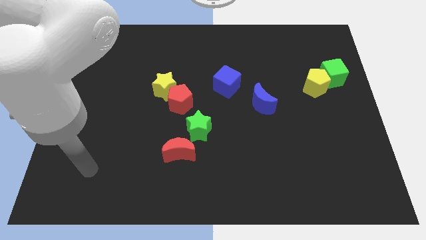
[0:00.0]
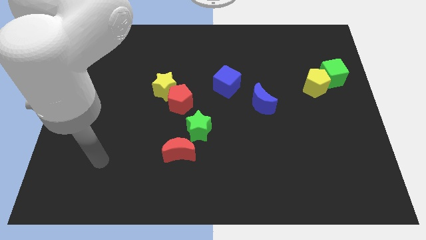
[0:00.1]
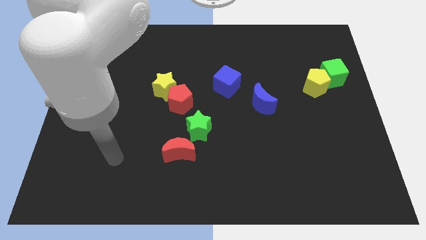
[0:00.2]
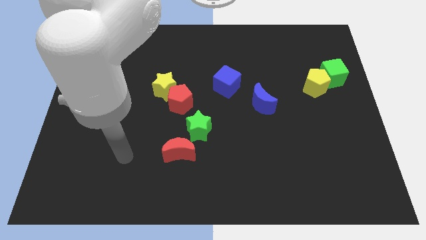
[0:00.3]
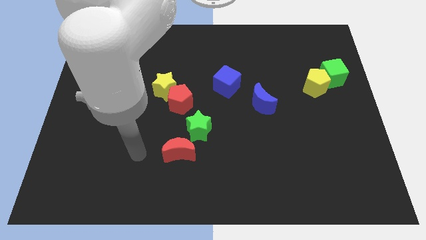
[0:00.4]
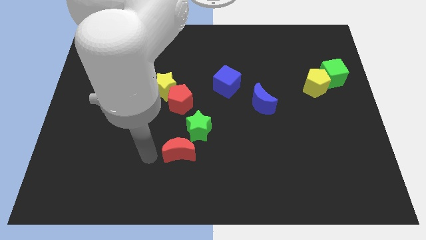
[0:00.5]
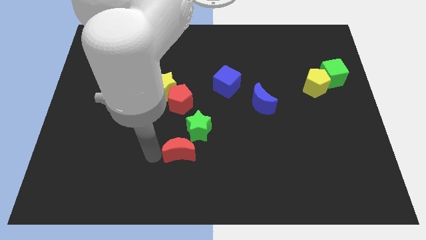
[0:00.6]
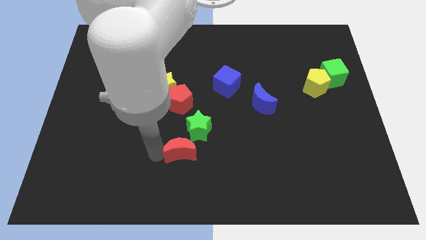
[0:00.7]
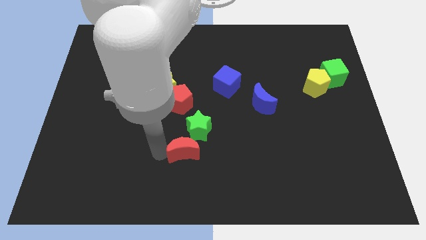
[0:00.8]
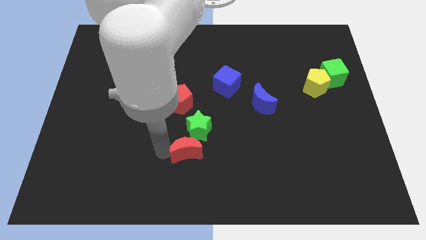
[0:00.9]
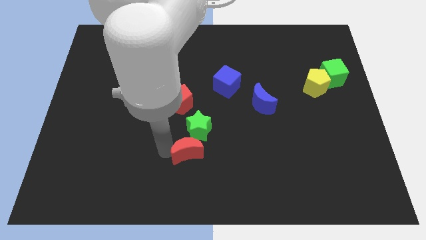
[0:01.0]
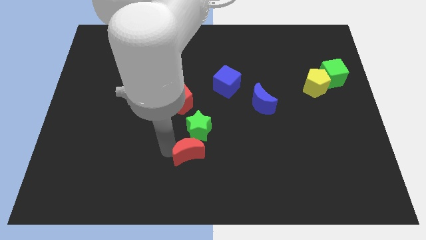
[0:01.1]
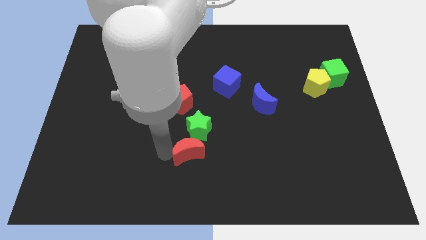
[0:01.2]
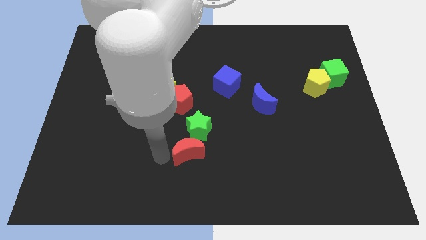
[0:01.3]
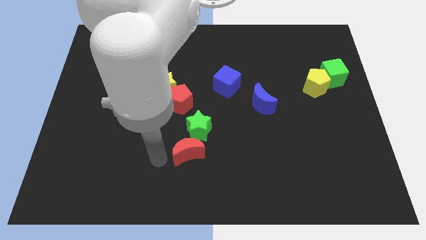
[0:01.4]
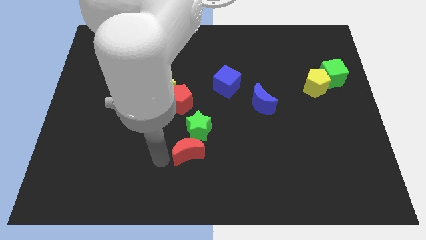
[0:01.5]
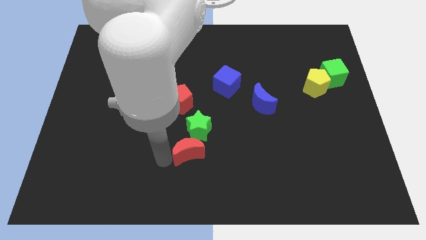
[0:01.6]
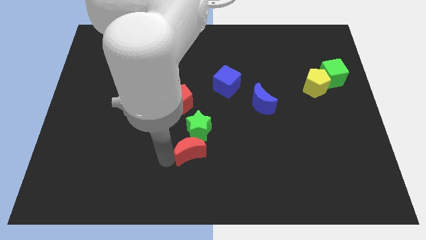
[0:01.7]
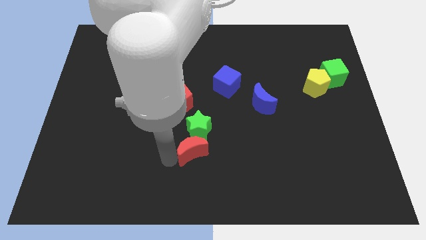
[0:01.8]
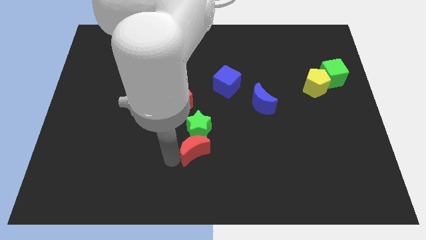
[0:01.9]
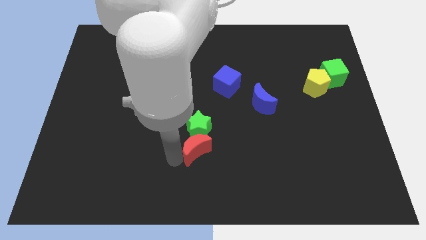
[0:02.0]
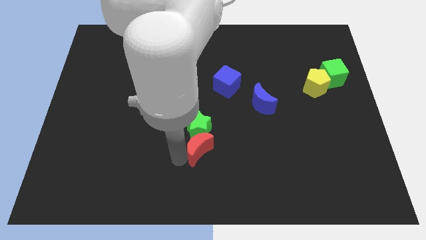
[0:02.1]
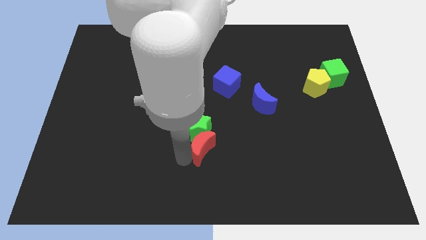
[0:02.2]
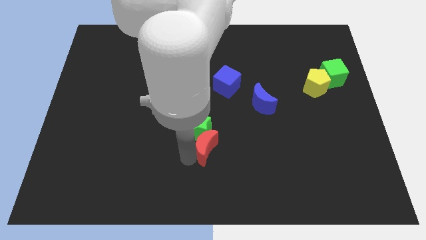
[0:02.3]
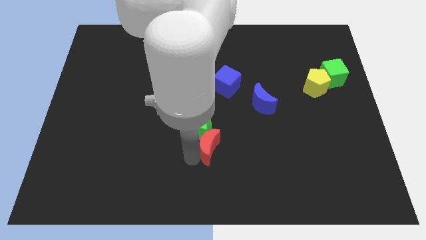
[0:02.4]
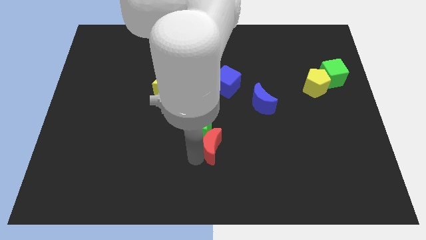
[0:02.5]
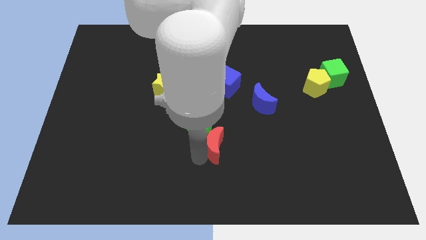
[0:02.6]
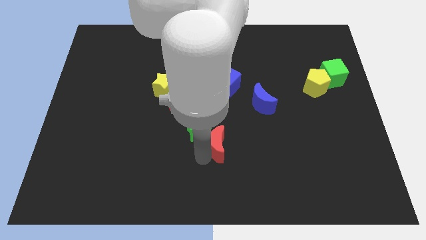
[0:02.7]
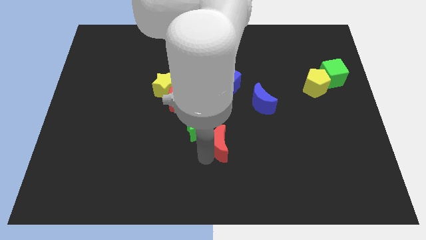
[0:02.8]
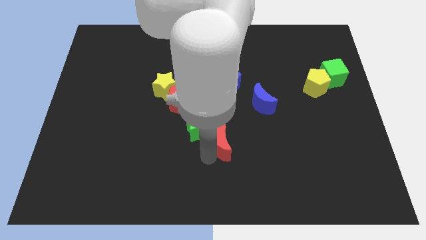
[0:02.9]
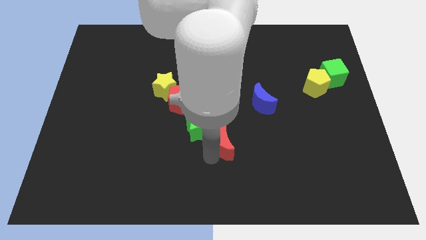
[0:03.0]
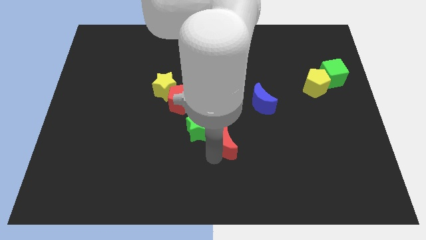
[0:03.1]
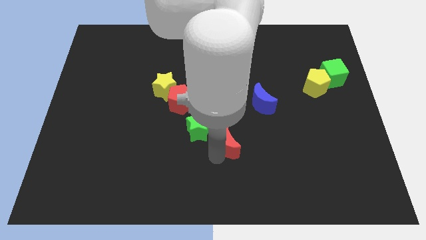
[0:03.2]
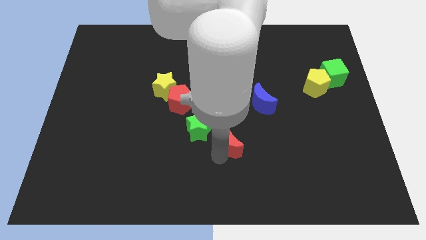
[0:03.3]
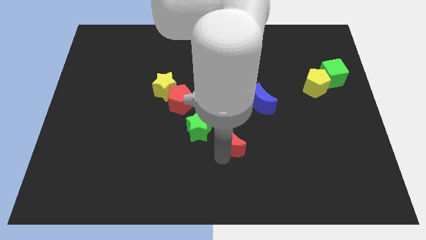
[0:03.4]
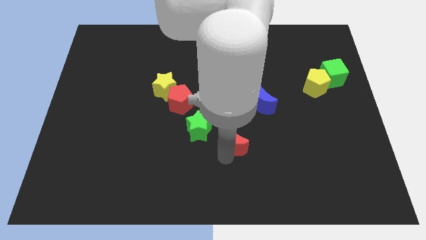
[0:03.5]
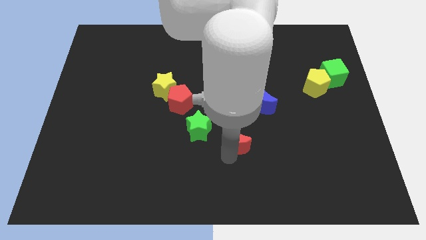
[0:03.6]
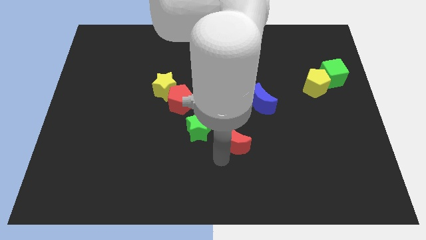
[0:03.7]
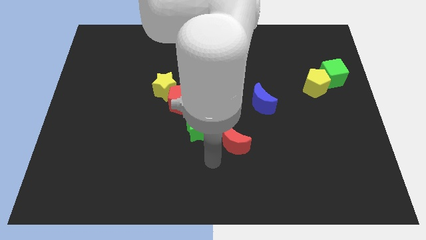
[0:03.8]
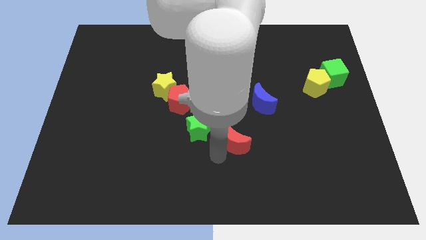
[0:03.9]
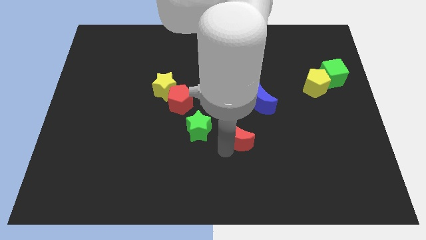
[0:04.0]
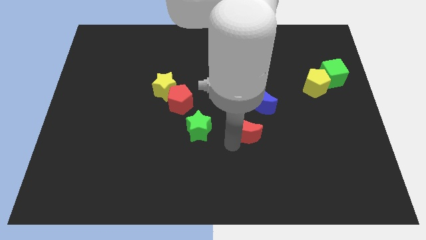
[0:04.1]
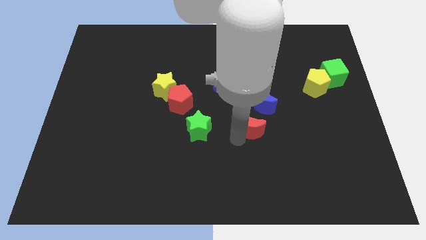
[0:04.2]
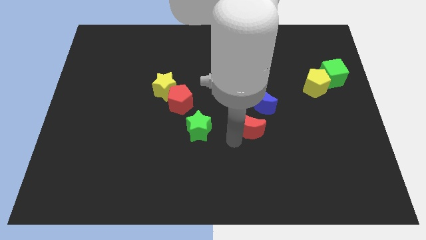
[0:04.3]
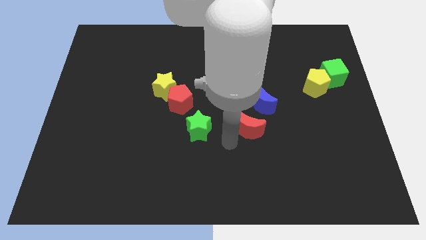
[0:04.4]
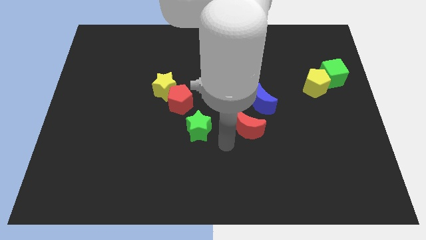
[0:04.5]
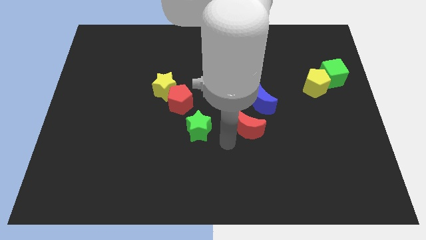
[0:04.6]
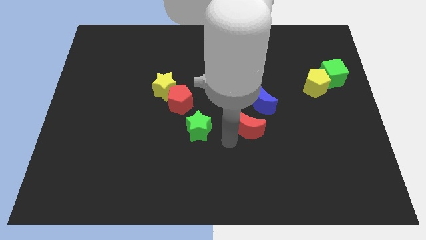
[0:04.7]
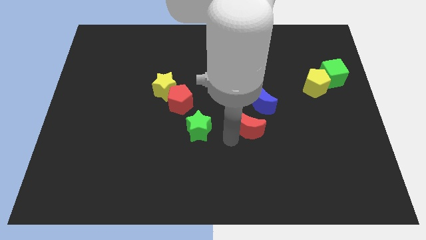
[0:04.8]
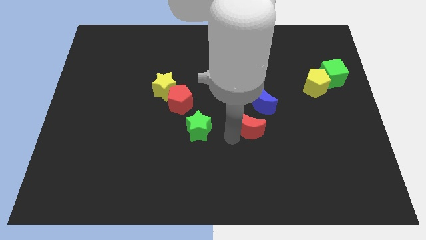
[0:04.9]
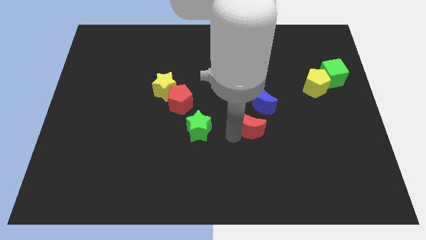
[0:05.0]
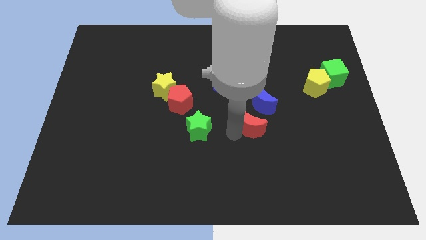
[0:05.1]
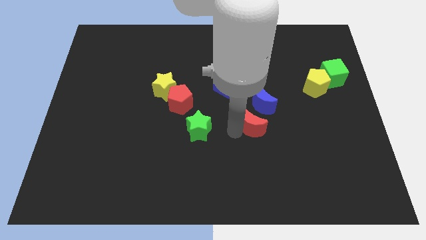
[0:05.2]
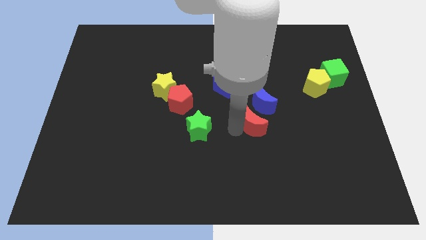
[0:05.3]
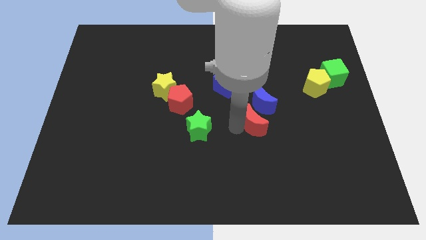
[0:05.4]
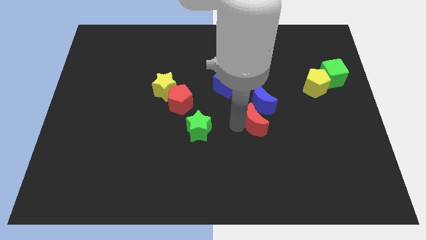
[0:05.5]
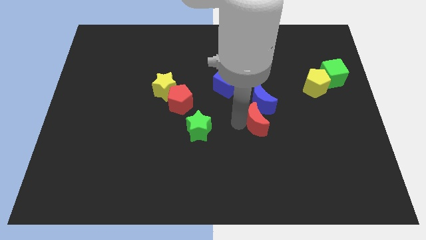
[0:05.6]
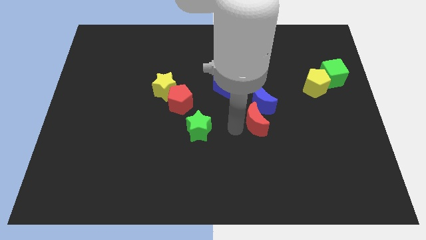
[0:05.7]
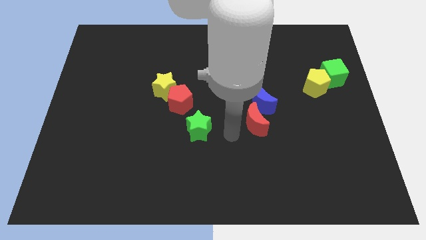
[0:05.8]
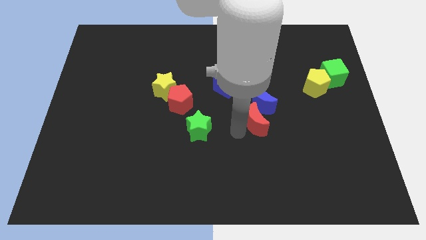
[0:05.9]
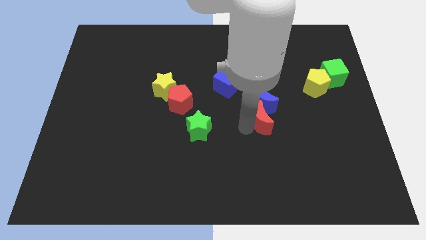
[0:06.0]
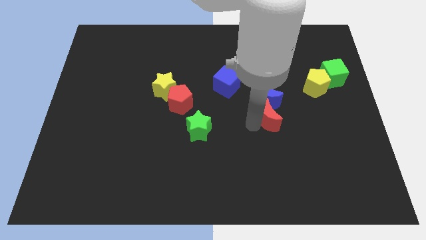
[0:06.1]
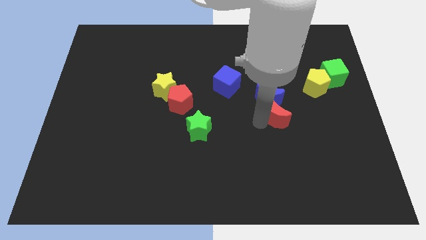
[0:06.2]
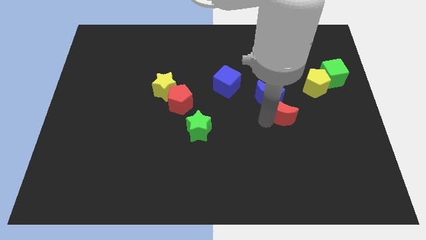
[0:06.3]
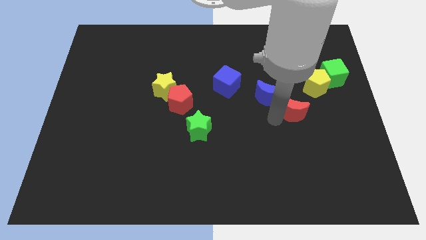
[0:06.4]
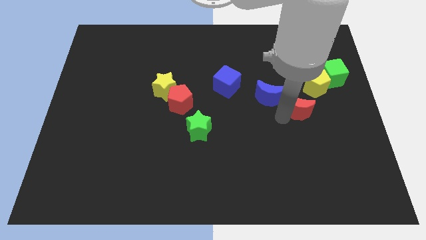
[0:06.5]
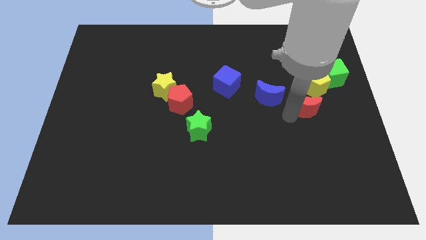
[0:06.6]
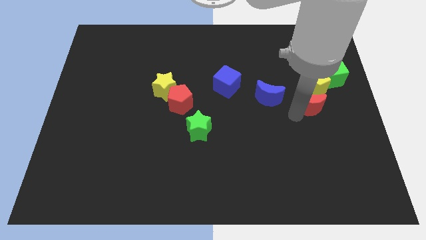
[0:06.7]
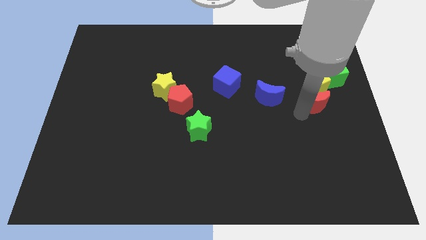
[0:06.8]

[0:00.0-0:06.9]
put the red moon towards the yellow pentagon

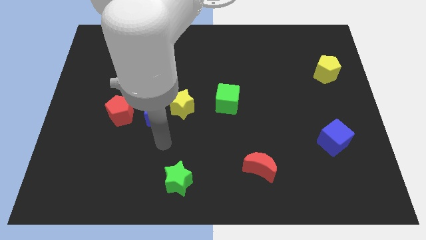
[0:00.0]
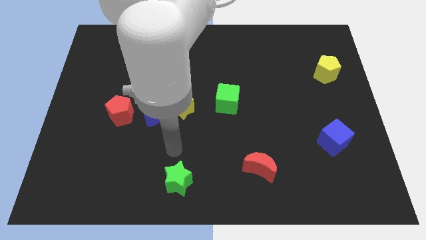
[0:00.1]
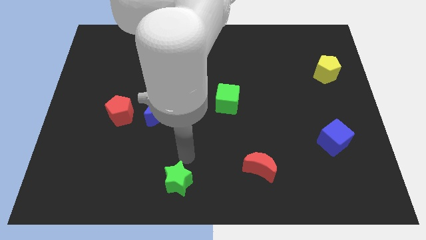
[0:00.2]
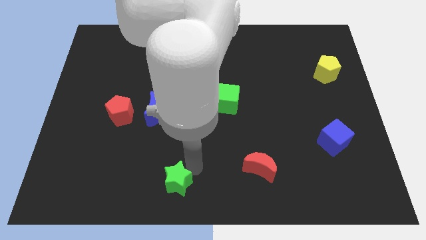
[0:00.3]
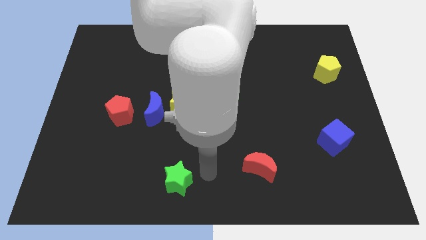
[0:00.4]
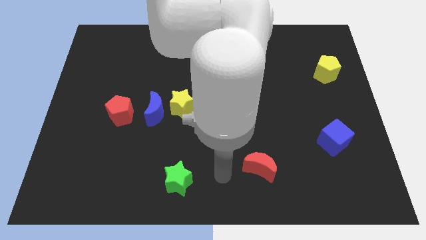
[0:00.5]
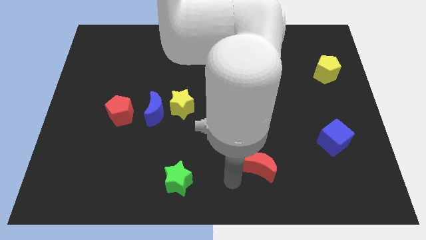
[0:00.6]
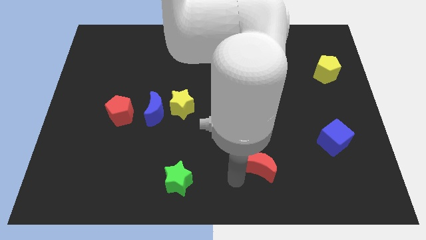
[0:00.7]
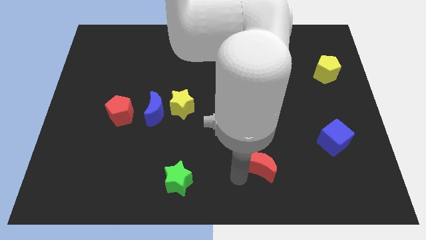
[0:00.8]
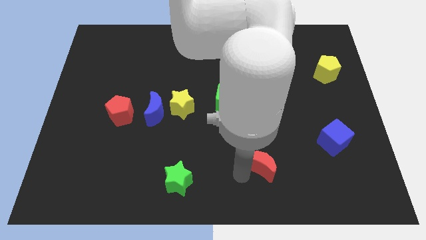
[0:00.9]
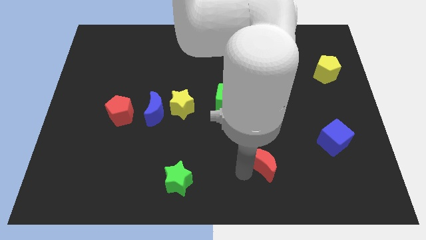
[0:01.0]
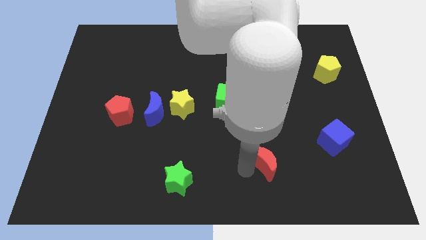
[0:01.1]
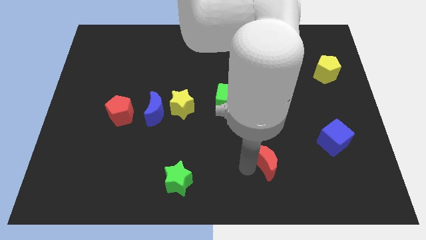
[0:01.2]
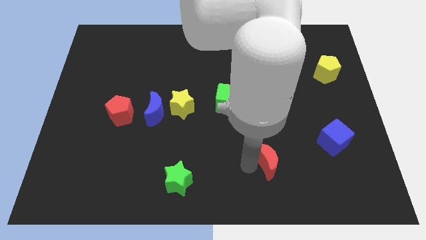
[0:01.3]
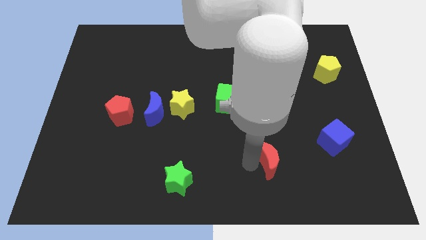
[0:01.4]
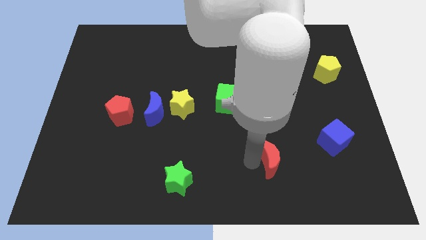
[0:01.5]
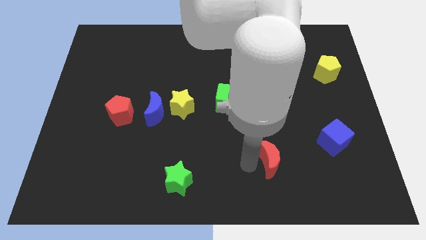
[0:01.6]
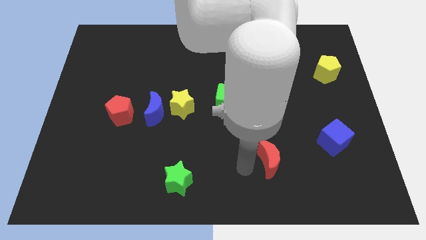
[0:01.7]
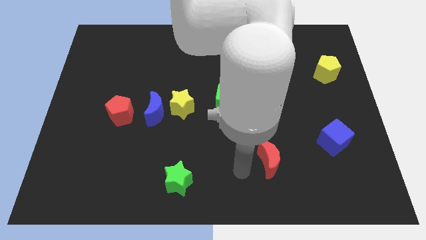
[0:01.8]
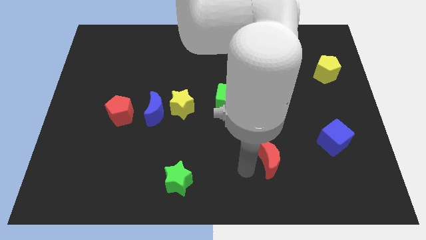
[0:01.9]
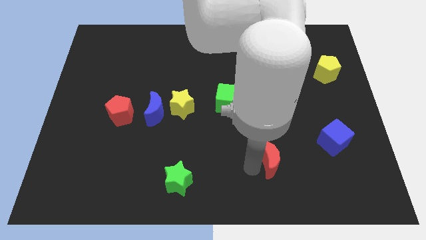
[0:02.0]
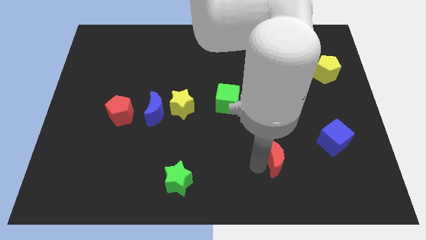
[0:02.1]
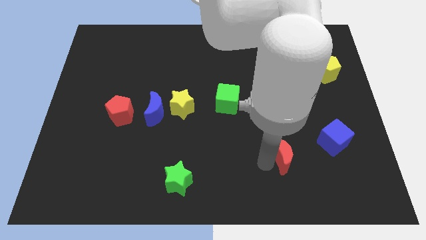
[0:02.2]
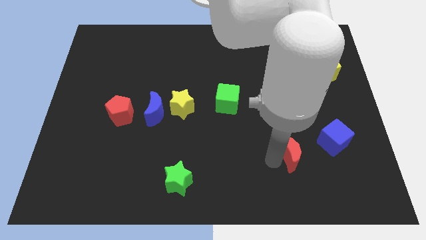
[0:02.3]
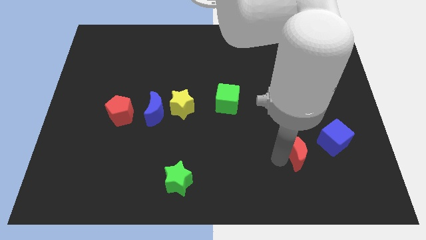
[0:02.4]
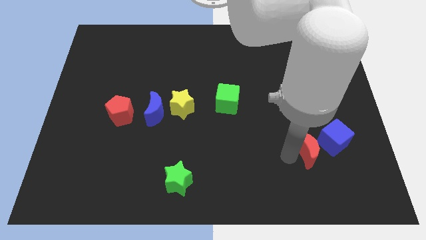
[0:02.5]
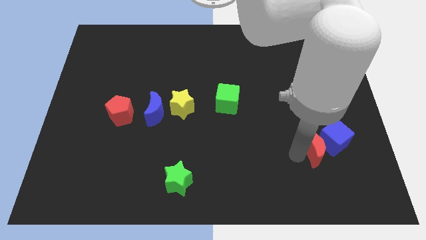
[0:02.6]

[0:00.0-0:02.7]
put the red moon to the blue cube
